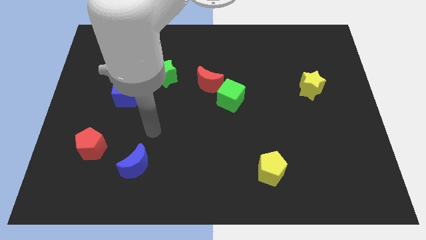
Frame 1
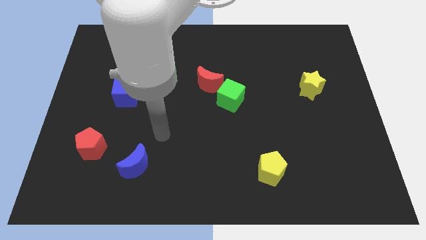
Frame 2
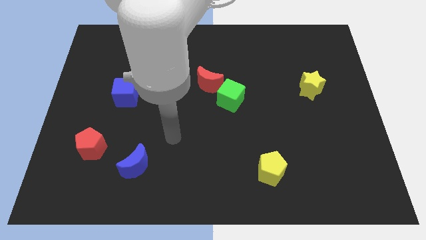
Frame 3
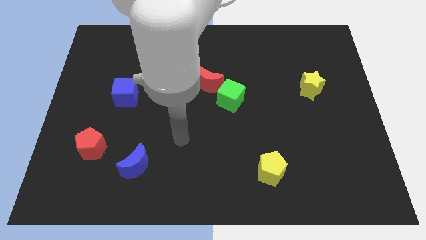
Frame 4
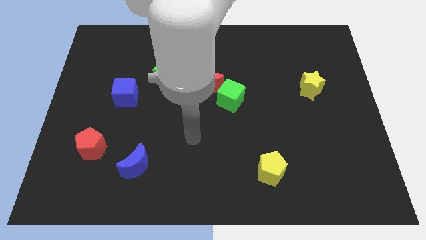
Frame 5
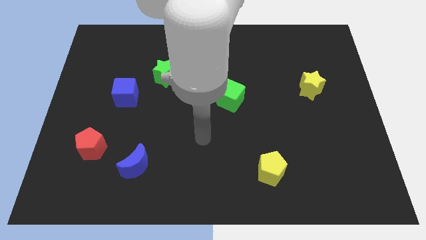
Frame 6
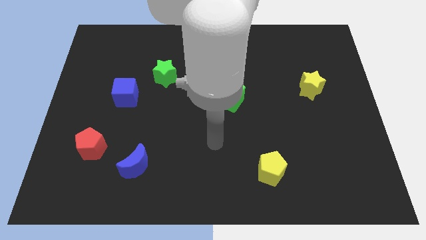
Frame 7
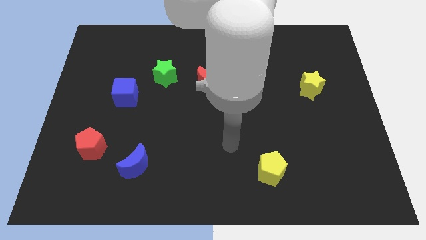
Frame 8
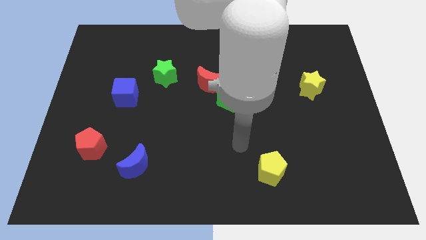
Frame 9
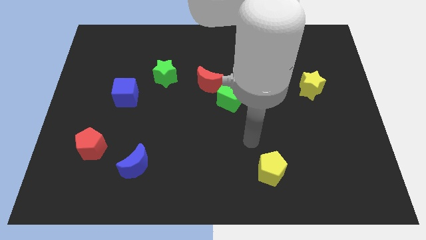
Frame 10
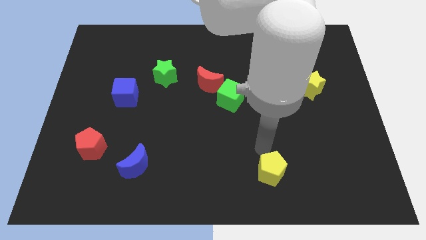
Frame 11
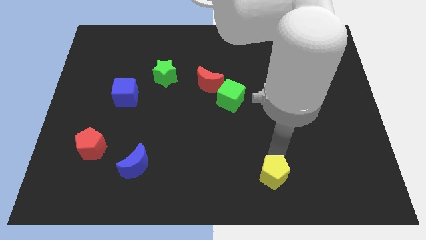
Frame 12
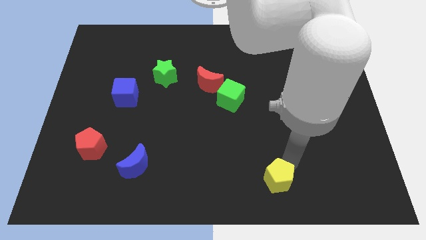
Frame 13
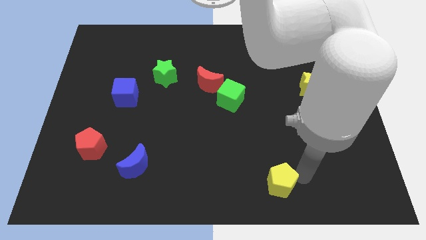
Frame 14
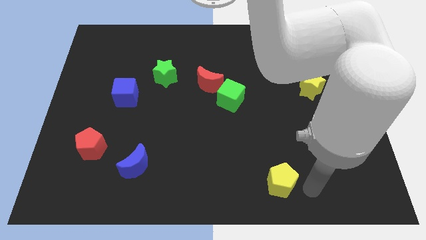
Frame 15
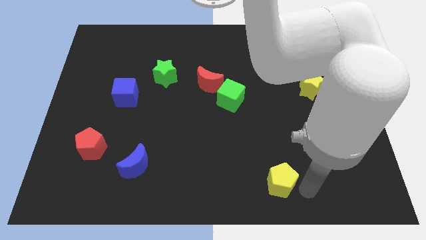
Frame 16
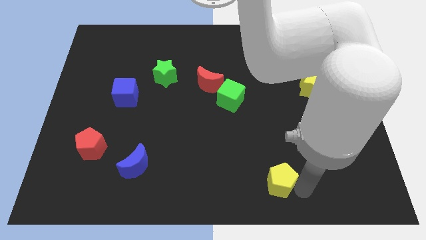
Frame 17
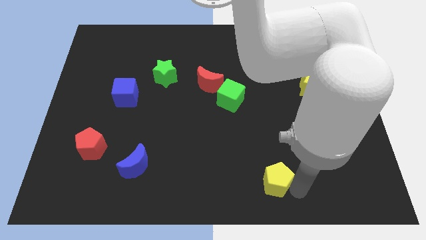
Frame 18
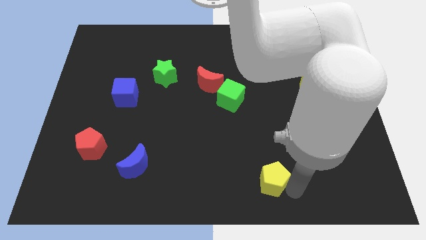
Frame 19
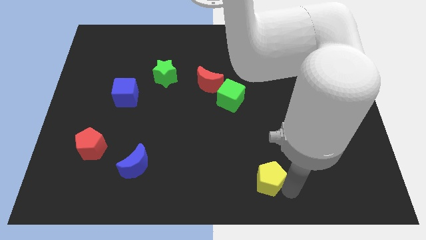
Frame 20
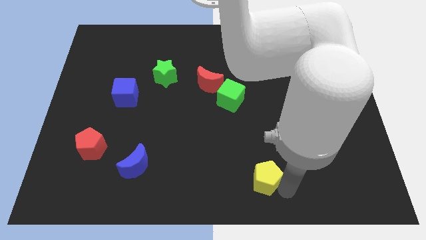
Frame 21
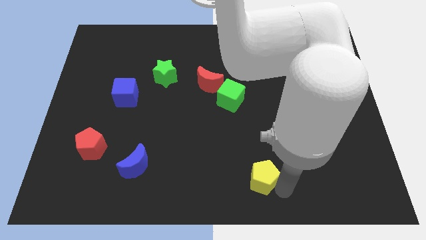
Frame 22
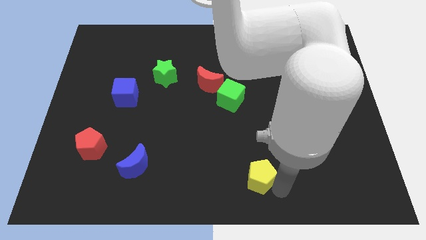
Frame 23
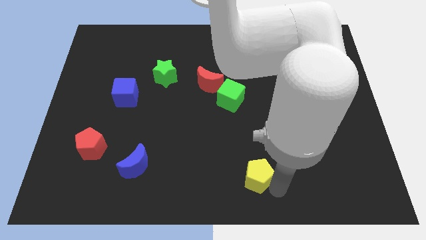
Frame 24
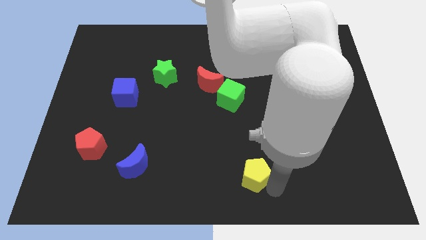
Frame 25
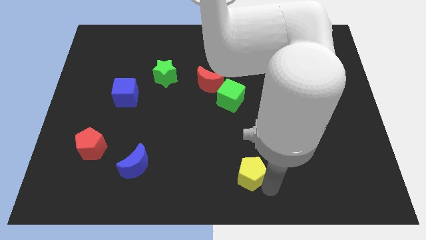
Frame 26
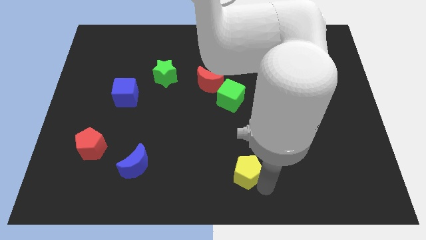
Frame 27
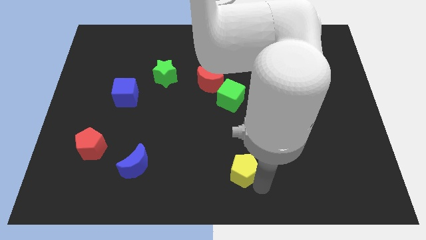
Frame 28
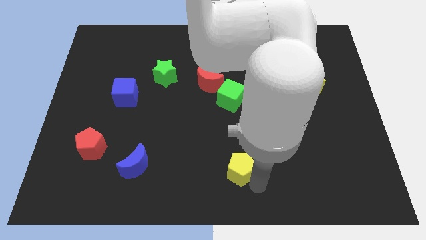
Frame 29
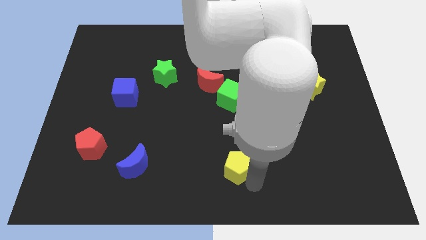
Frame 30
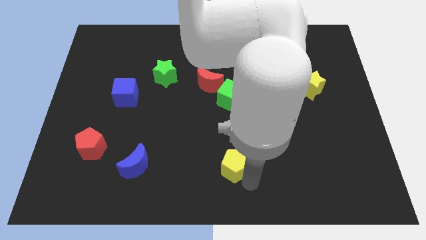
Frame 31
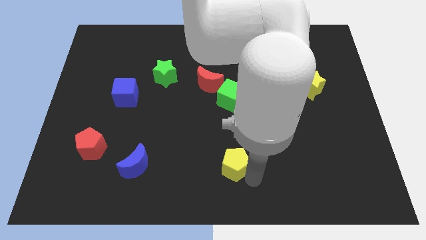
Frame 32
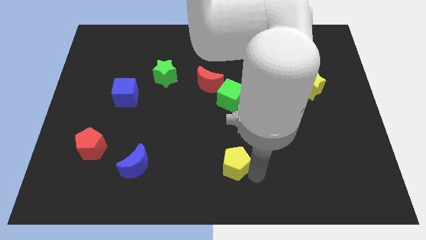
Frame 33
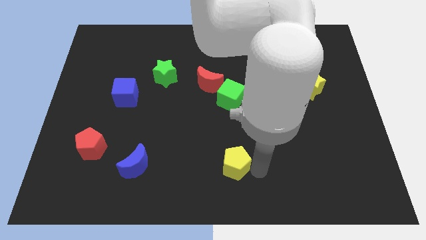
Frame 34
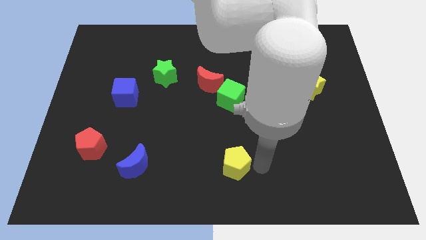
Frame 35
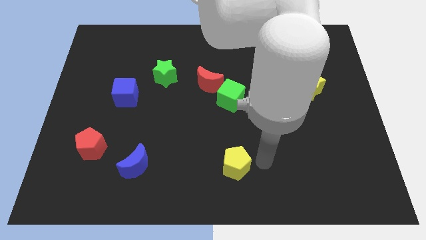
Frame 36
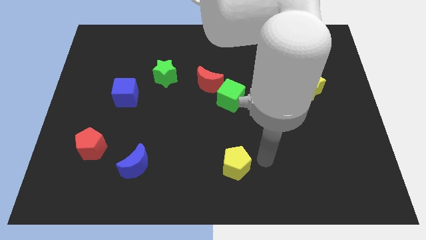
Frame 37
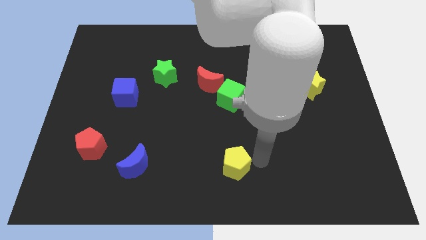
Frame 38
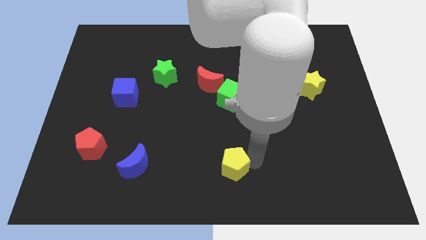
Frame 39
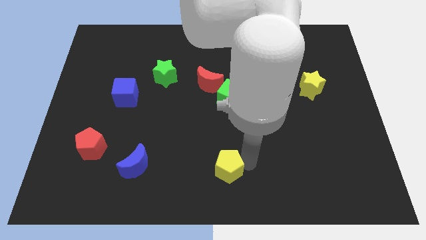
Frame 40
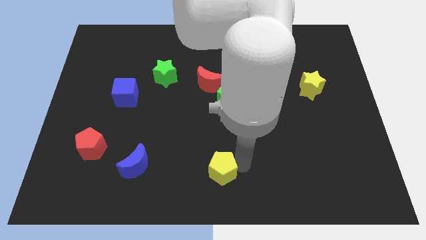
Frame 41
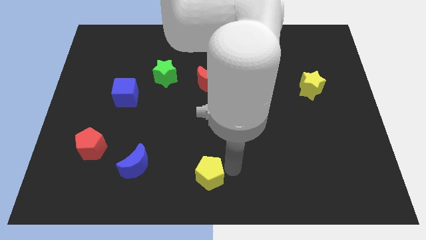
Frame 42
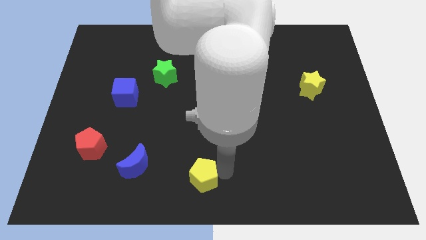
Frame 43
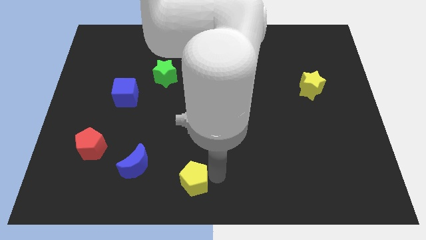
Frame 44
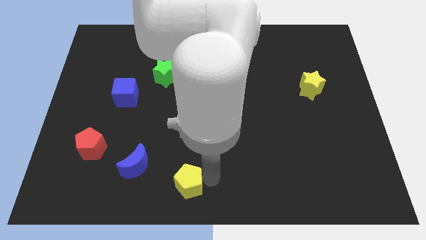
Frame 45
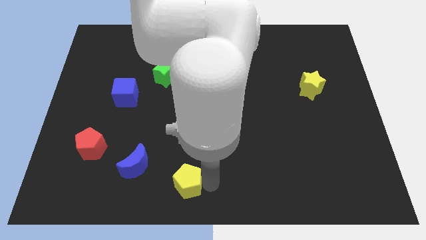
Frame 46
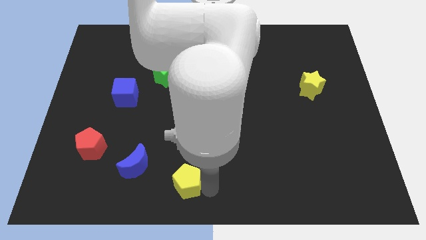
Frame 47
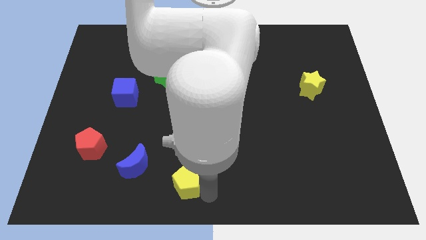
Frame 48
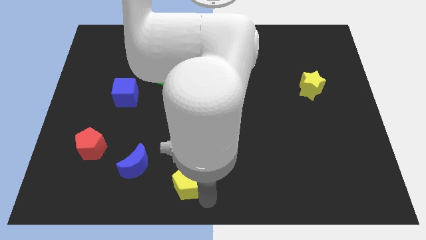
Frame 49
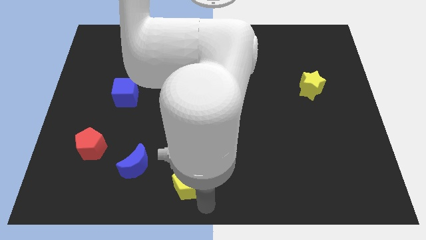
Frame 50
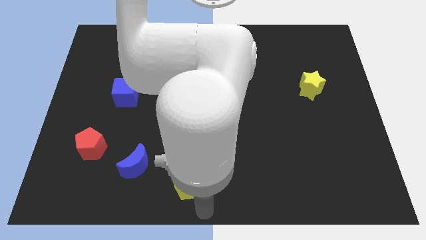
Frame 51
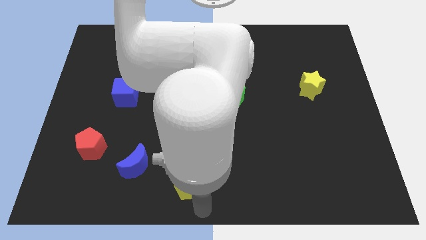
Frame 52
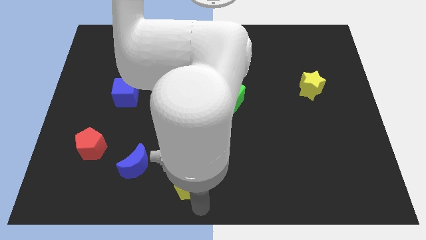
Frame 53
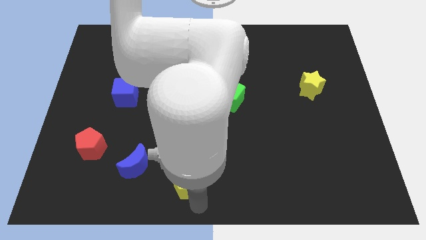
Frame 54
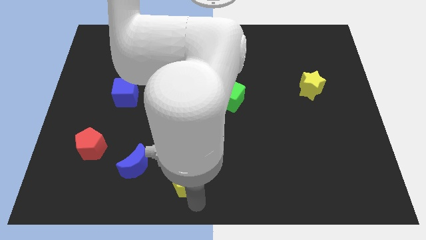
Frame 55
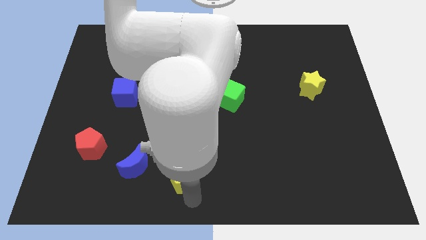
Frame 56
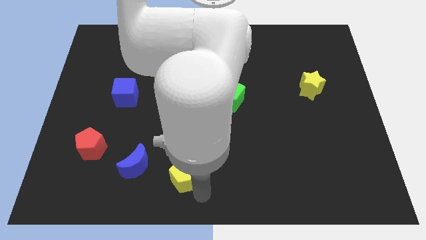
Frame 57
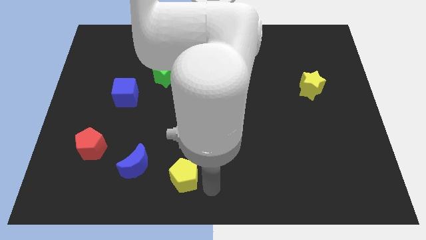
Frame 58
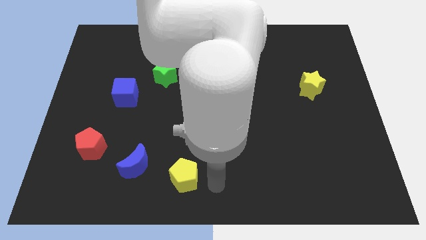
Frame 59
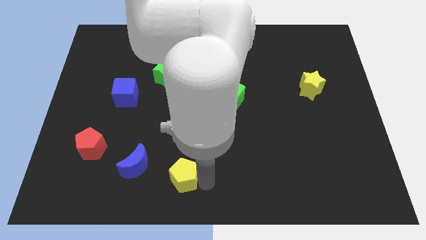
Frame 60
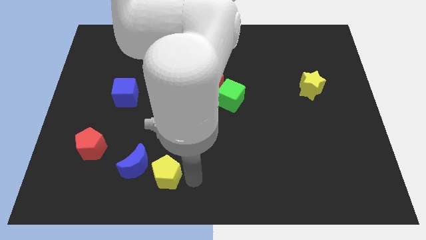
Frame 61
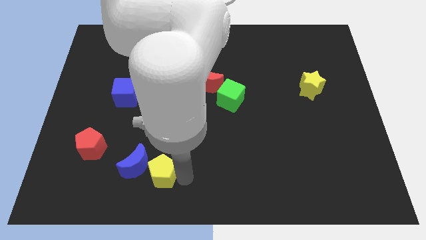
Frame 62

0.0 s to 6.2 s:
push the yellow pentagon next to the blue moon

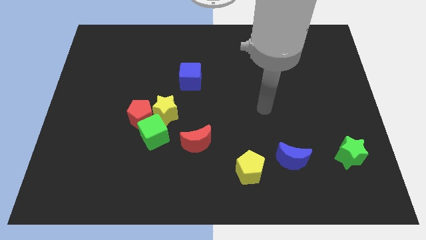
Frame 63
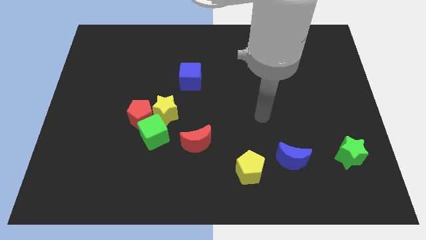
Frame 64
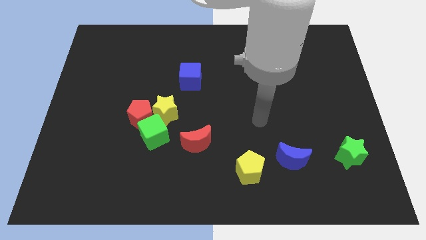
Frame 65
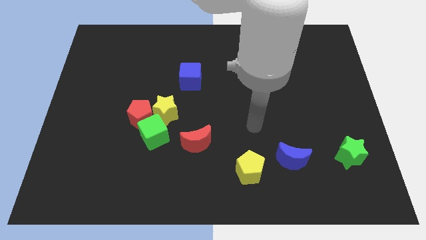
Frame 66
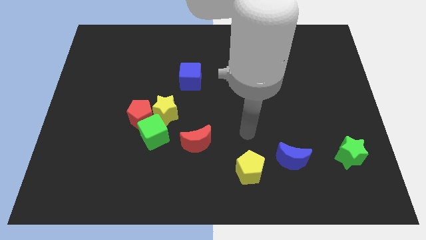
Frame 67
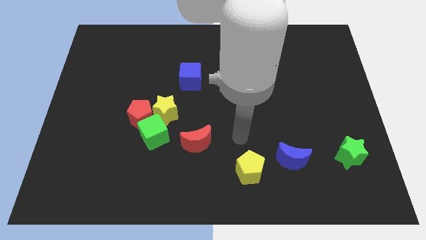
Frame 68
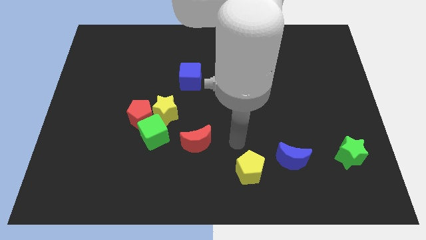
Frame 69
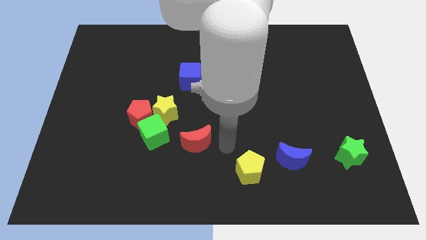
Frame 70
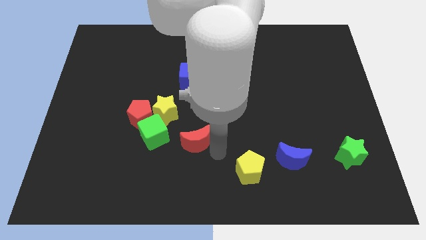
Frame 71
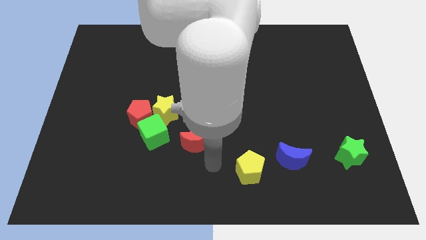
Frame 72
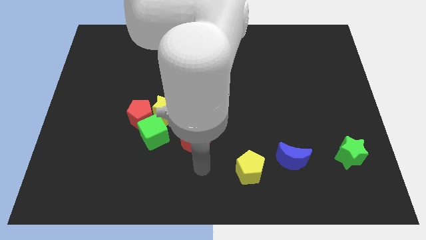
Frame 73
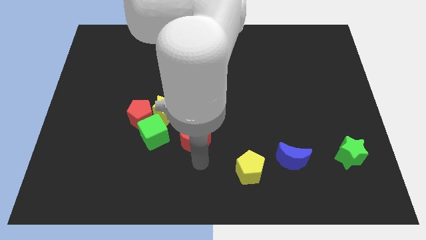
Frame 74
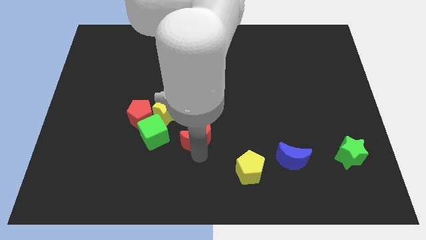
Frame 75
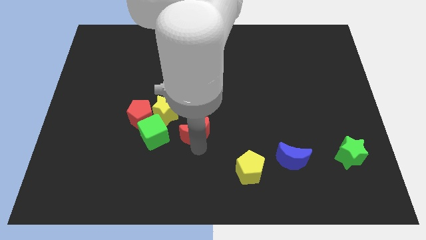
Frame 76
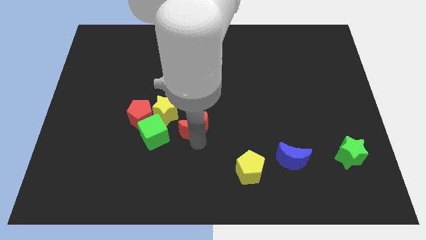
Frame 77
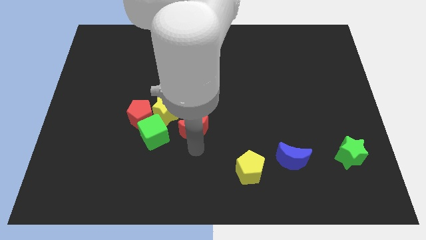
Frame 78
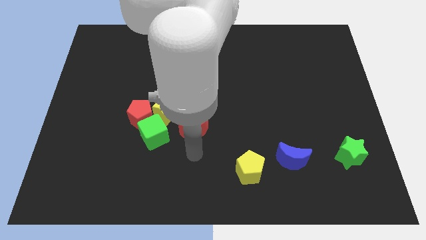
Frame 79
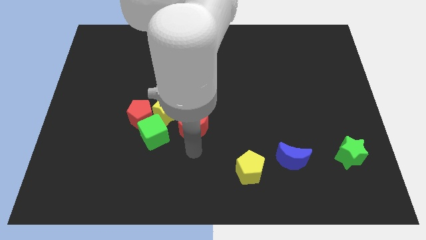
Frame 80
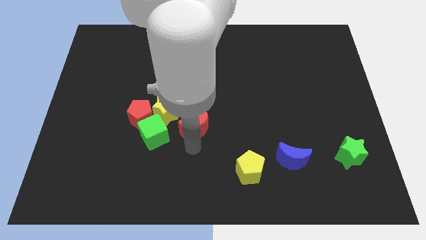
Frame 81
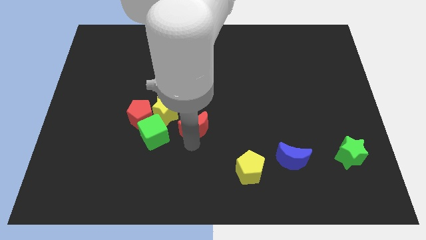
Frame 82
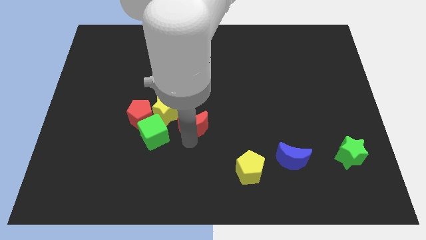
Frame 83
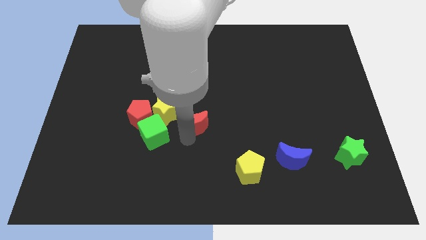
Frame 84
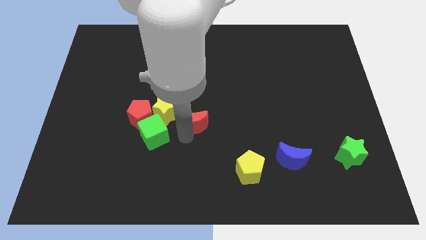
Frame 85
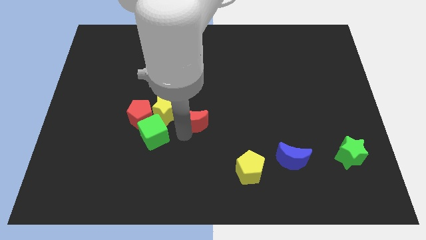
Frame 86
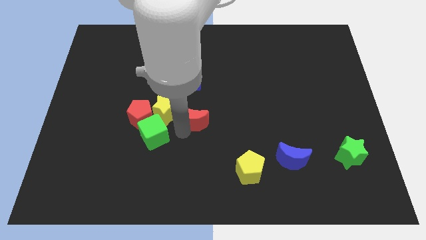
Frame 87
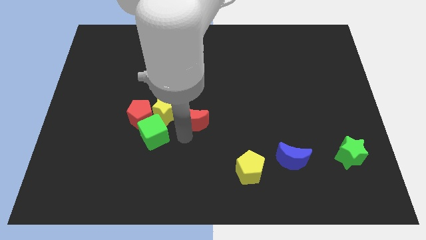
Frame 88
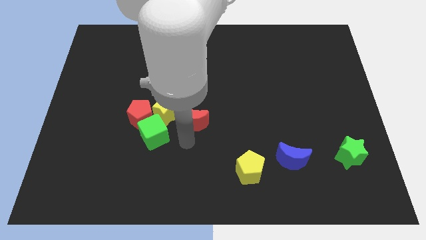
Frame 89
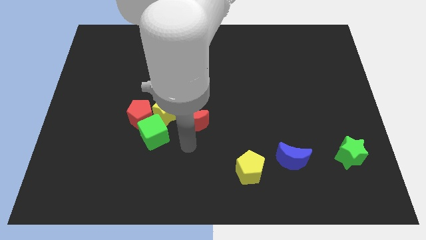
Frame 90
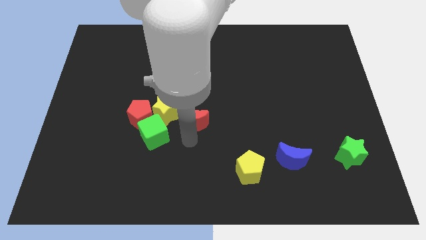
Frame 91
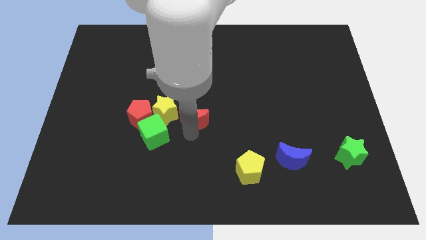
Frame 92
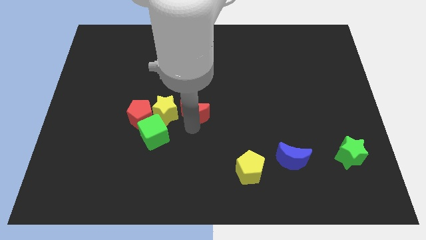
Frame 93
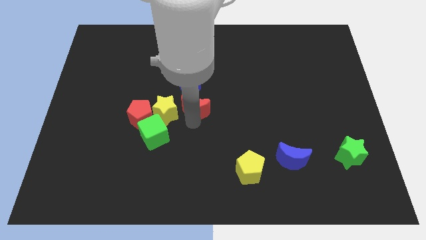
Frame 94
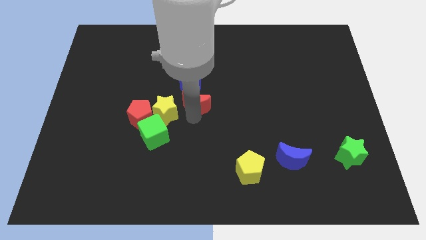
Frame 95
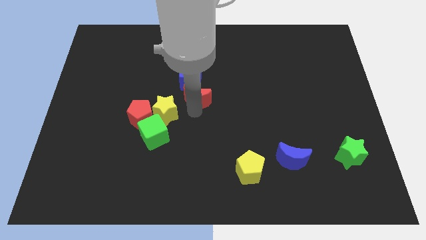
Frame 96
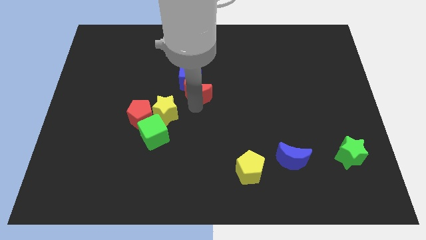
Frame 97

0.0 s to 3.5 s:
put the red moon next to the blue cube
